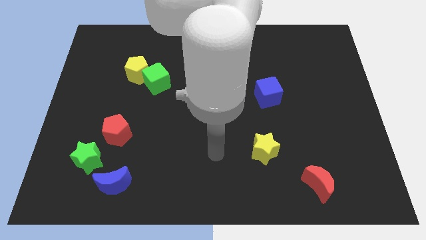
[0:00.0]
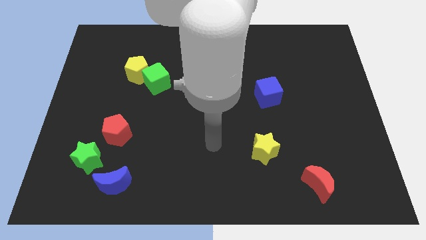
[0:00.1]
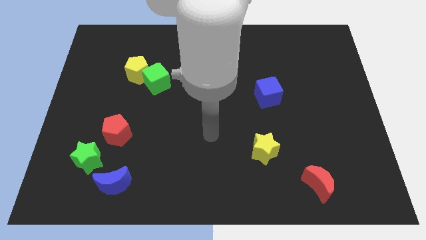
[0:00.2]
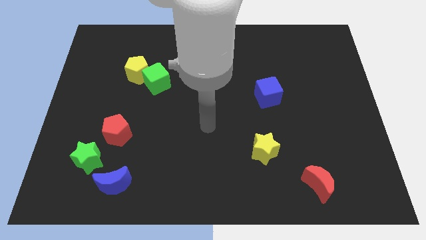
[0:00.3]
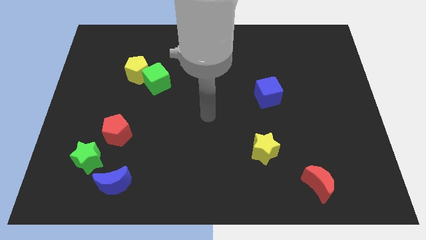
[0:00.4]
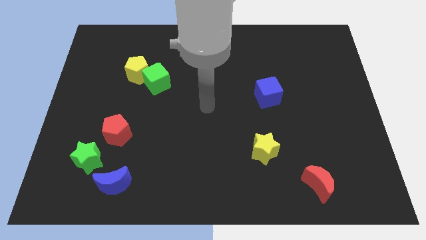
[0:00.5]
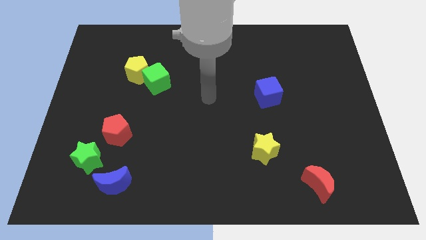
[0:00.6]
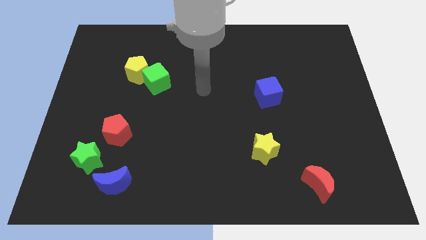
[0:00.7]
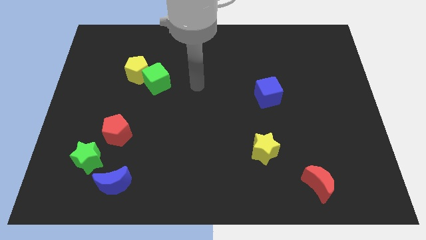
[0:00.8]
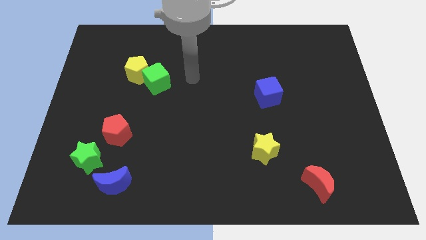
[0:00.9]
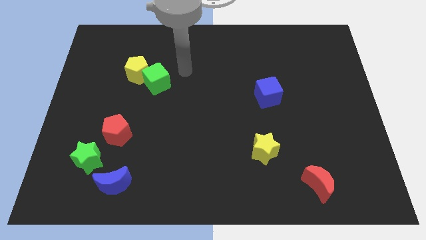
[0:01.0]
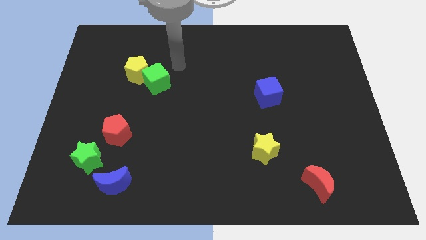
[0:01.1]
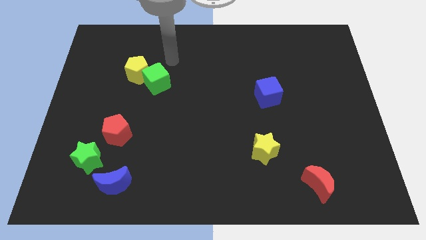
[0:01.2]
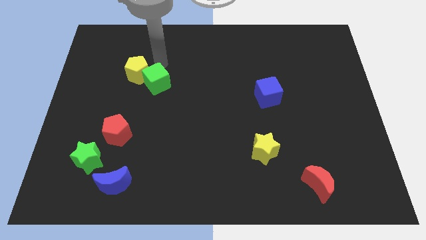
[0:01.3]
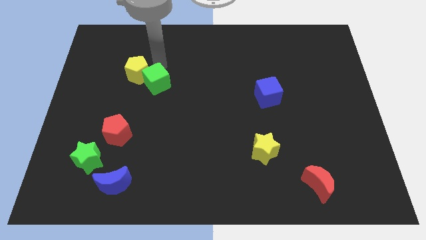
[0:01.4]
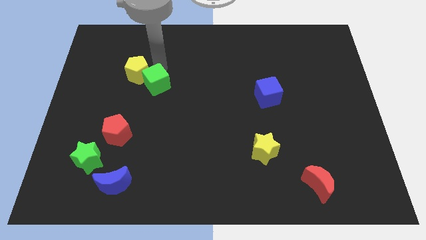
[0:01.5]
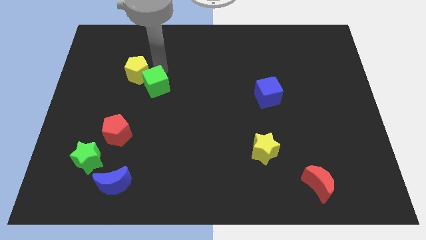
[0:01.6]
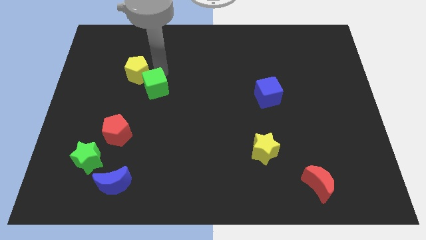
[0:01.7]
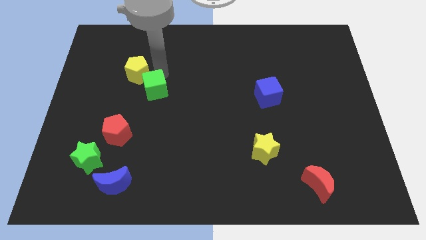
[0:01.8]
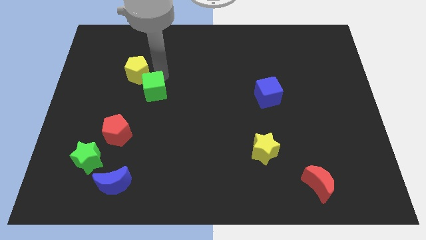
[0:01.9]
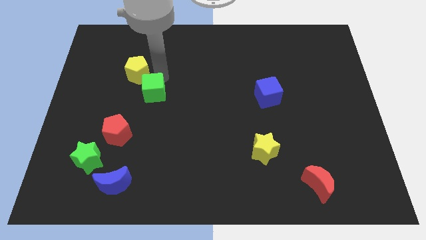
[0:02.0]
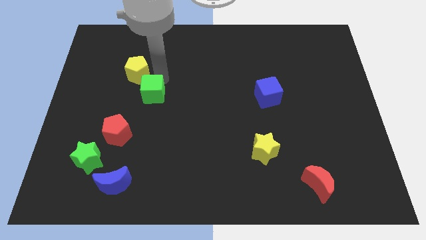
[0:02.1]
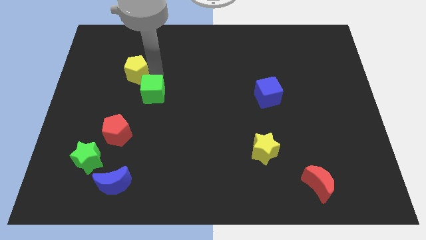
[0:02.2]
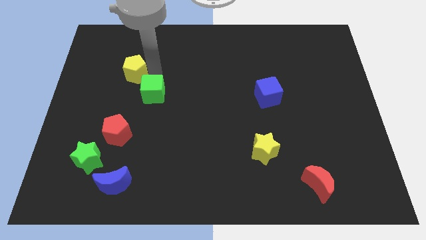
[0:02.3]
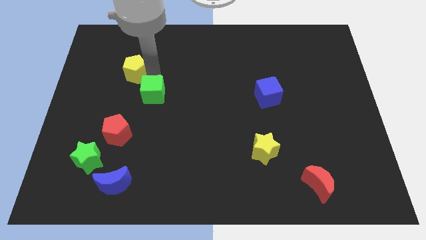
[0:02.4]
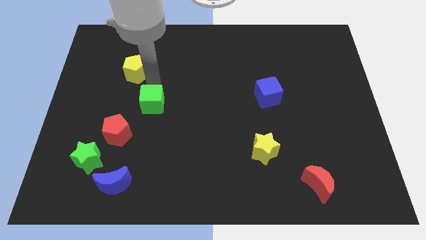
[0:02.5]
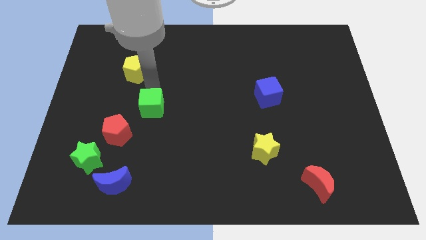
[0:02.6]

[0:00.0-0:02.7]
slightly move the green cube down

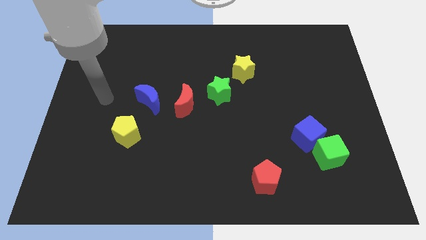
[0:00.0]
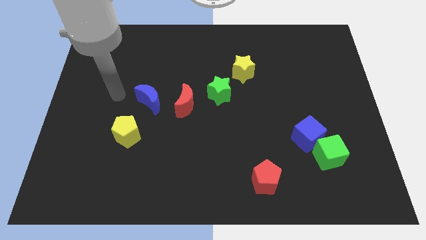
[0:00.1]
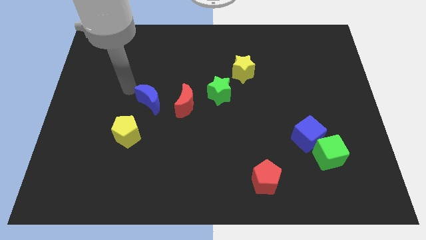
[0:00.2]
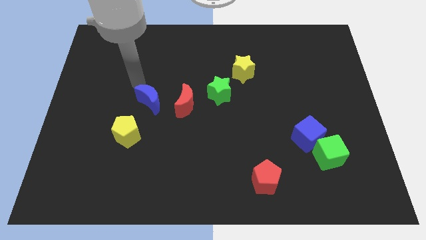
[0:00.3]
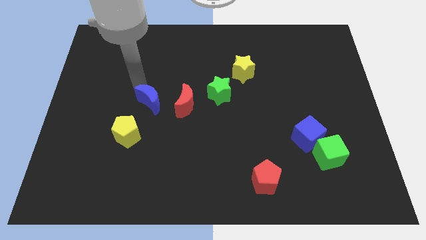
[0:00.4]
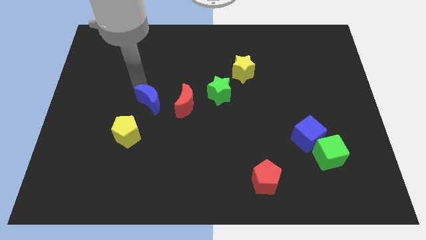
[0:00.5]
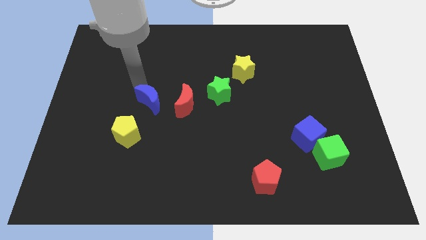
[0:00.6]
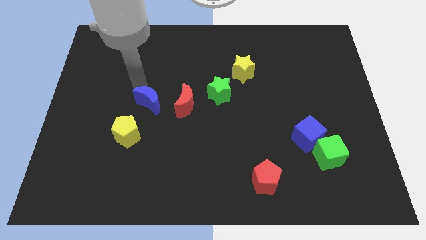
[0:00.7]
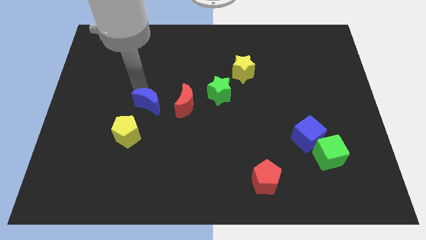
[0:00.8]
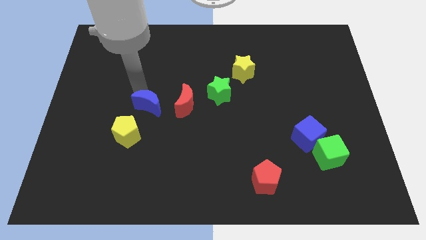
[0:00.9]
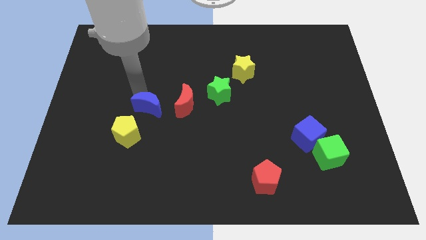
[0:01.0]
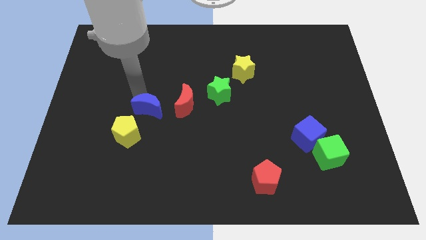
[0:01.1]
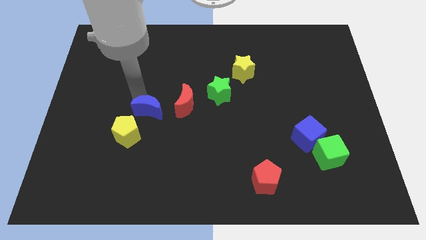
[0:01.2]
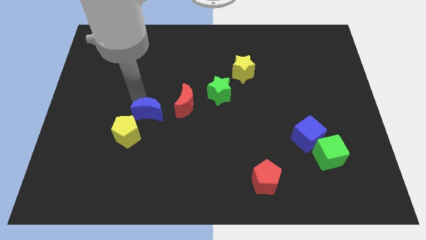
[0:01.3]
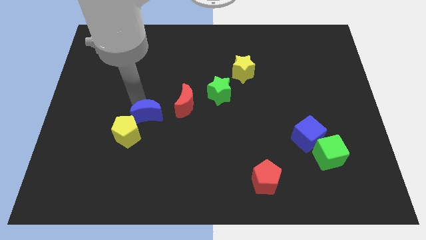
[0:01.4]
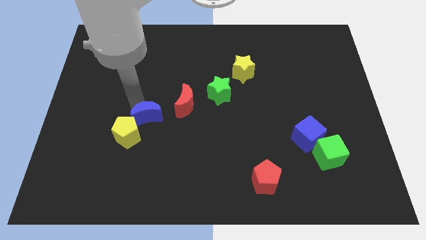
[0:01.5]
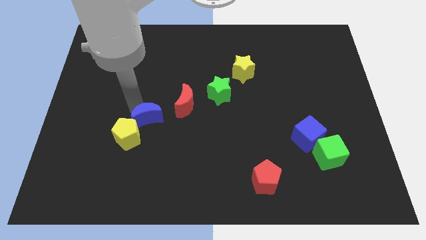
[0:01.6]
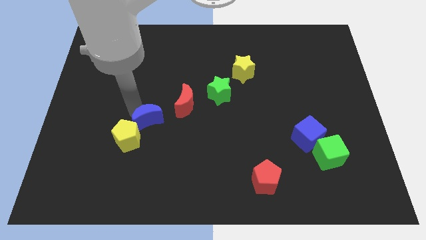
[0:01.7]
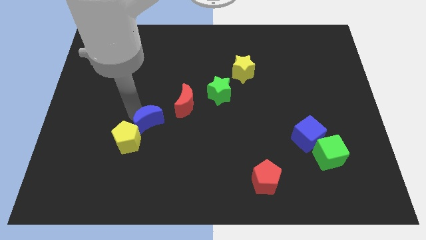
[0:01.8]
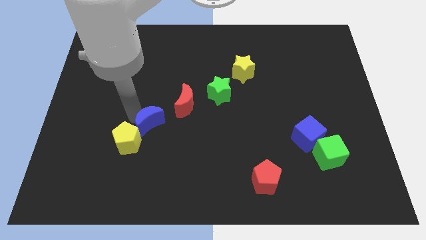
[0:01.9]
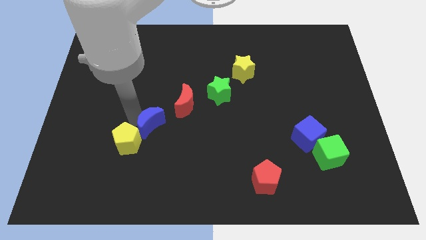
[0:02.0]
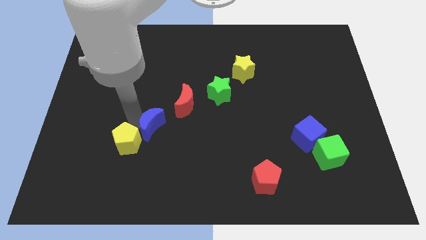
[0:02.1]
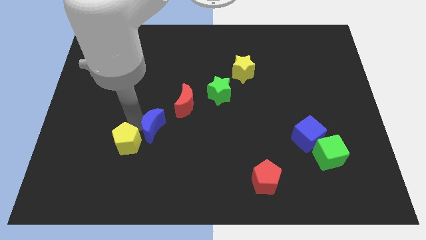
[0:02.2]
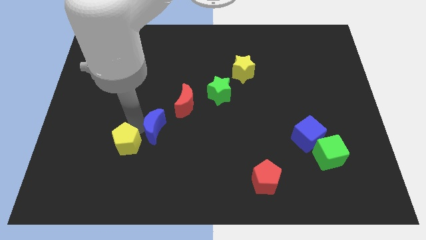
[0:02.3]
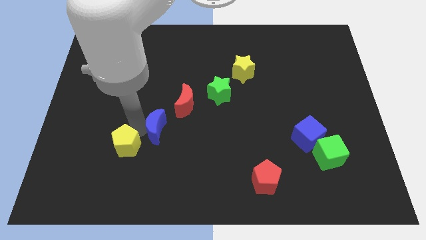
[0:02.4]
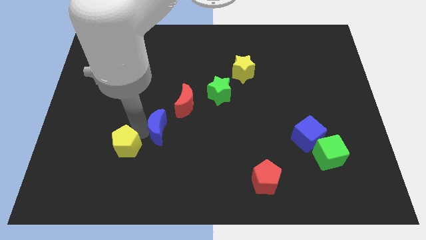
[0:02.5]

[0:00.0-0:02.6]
move the blue moon downwards and then right a little bit

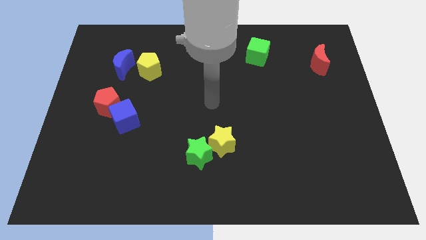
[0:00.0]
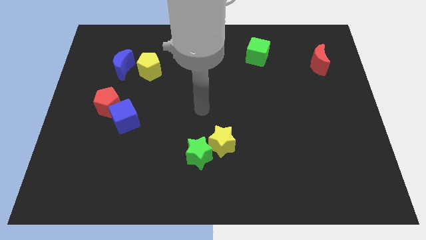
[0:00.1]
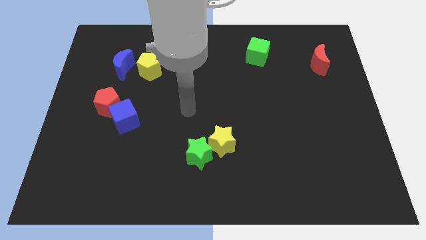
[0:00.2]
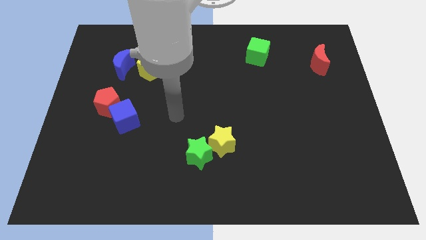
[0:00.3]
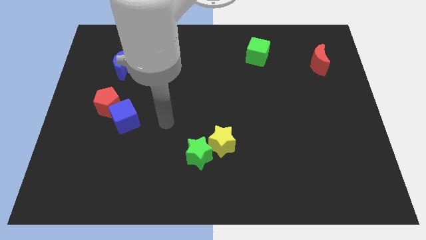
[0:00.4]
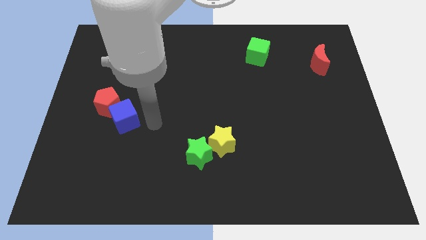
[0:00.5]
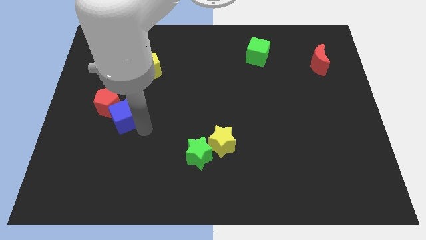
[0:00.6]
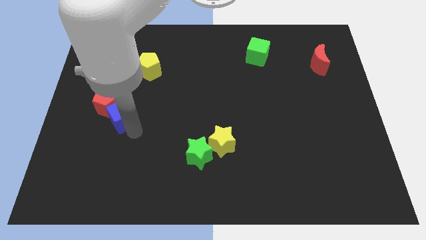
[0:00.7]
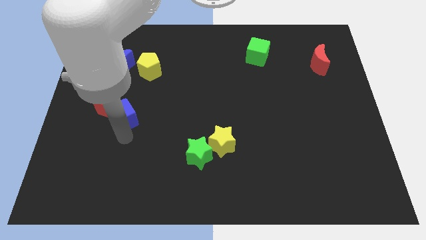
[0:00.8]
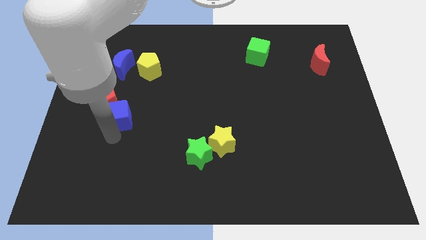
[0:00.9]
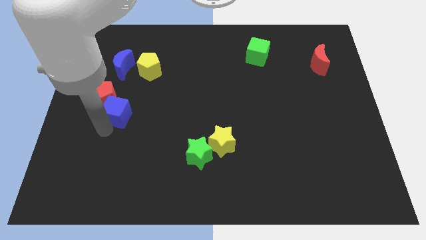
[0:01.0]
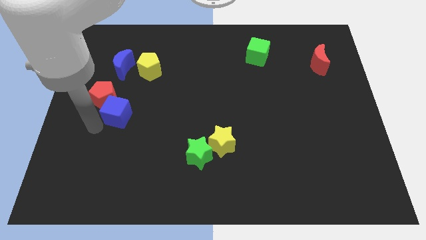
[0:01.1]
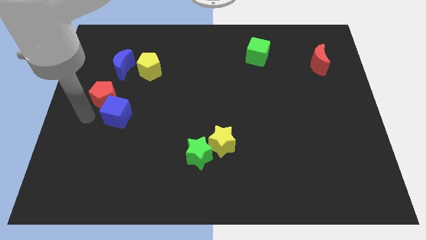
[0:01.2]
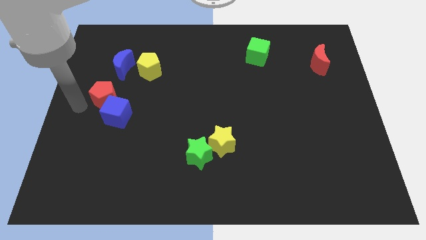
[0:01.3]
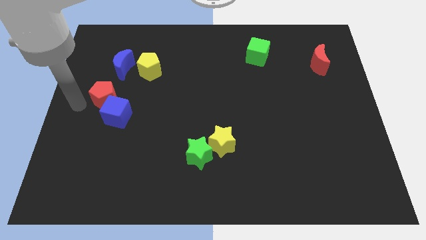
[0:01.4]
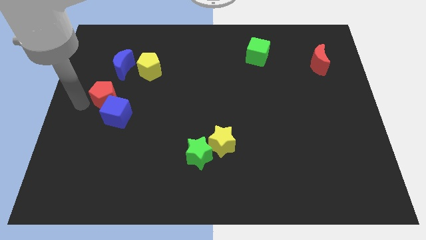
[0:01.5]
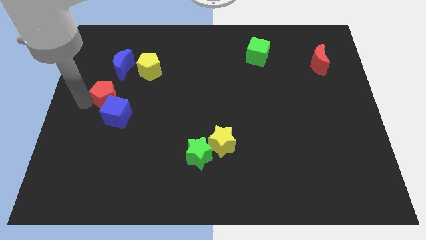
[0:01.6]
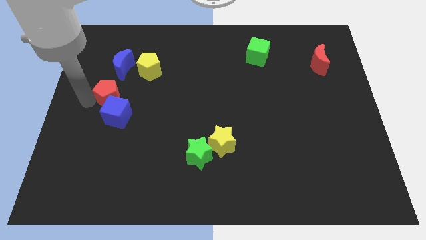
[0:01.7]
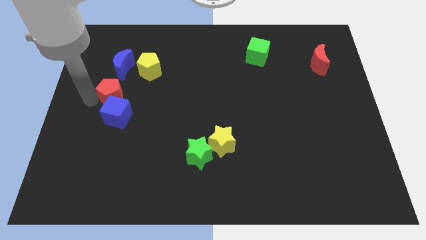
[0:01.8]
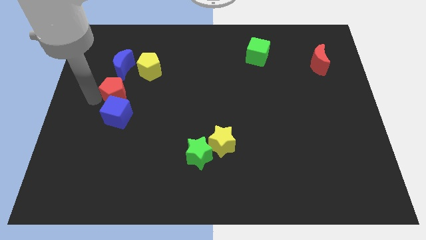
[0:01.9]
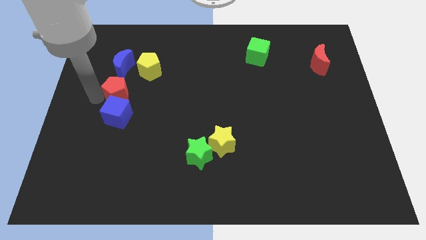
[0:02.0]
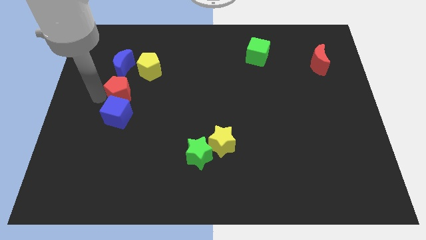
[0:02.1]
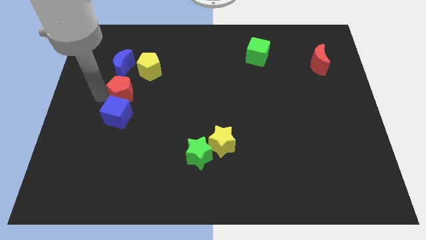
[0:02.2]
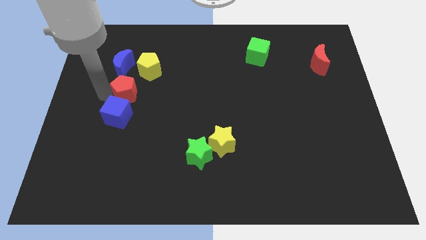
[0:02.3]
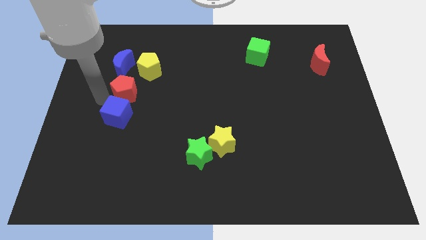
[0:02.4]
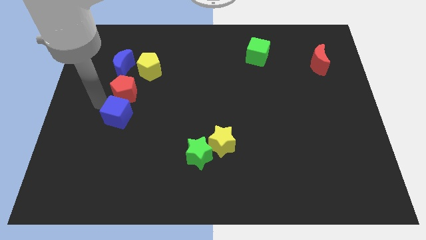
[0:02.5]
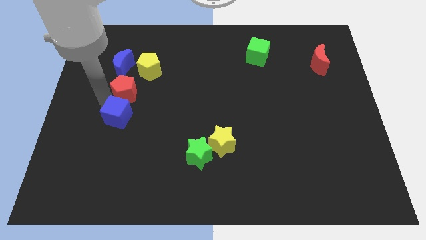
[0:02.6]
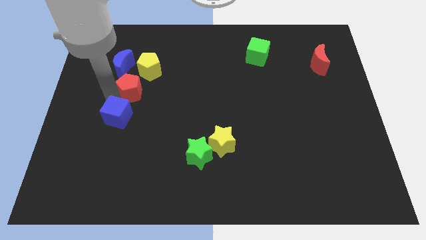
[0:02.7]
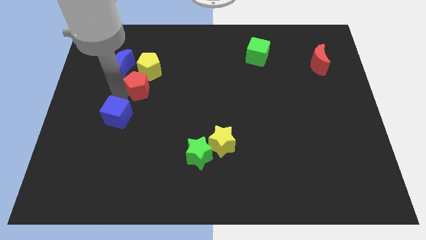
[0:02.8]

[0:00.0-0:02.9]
slide the red pentagon up and to the right somewhat

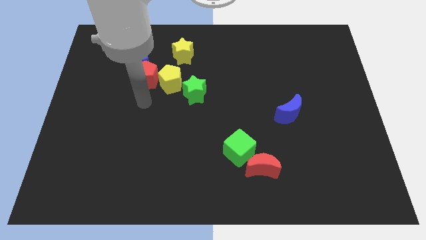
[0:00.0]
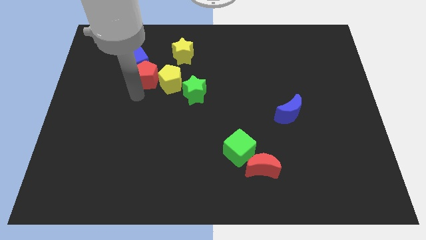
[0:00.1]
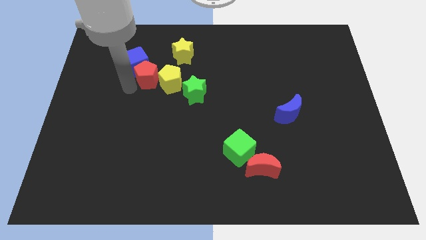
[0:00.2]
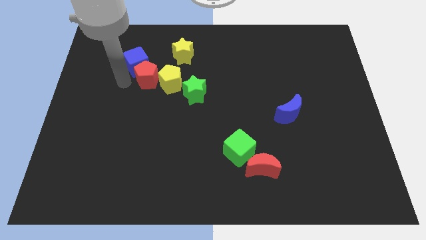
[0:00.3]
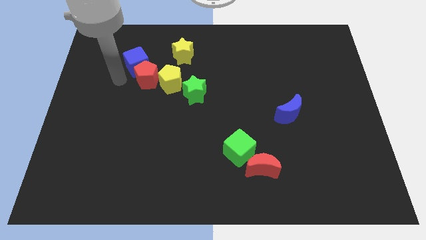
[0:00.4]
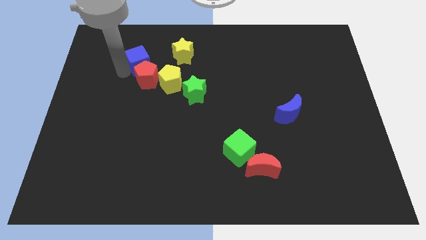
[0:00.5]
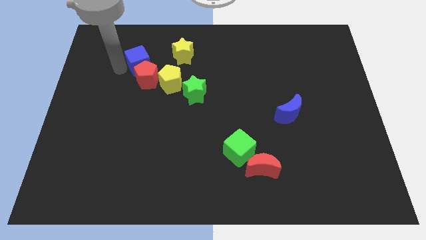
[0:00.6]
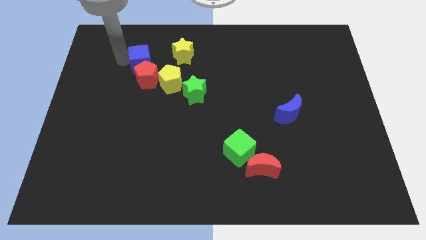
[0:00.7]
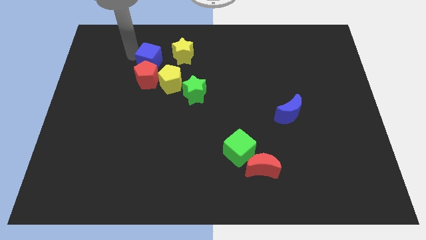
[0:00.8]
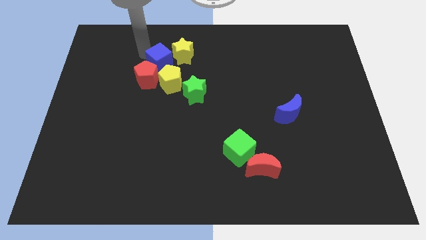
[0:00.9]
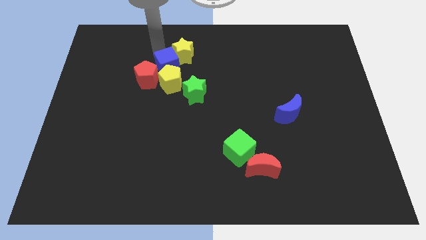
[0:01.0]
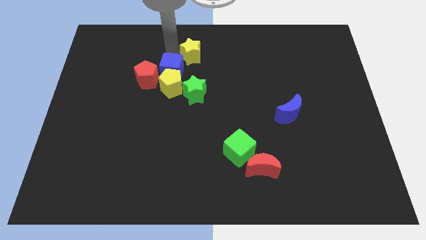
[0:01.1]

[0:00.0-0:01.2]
slightly slide the blue cube down and to the right
